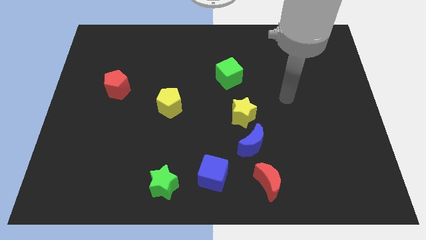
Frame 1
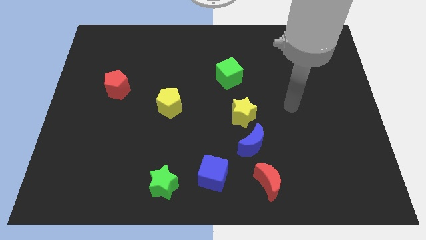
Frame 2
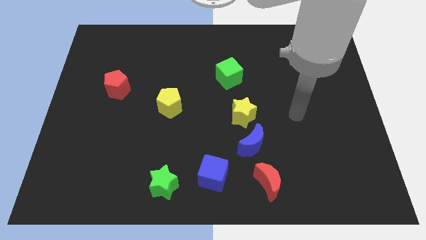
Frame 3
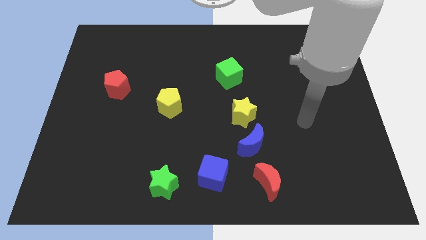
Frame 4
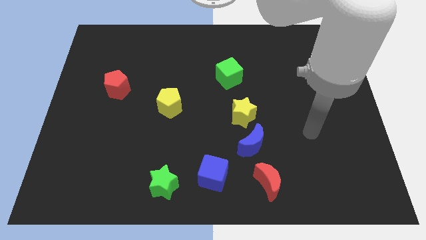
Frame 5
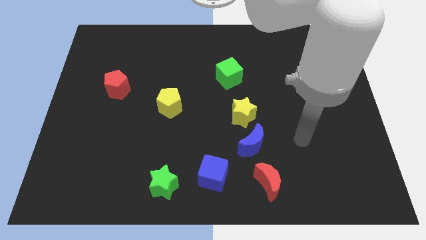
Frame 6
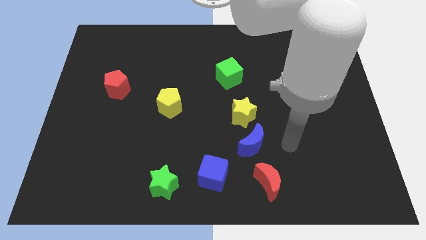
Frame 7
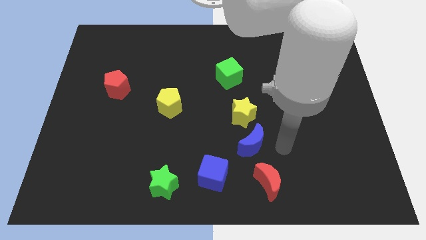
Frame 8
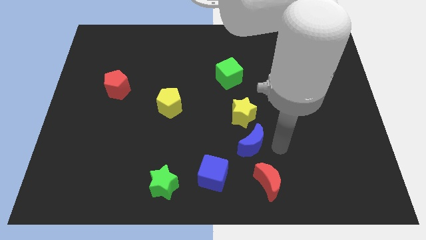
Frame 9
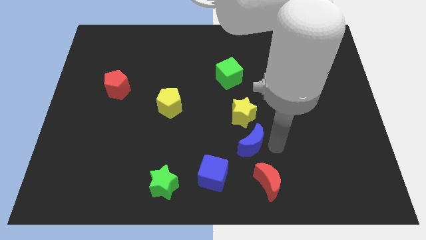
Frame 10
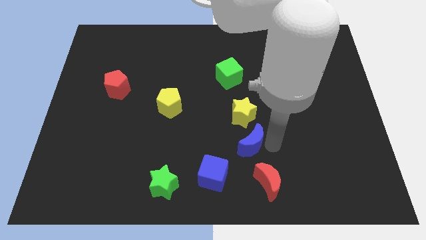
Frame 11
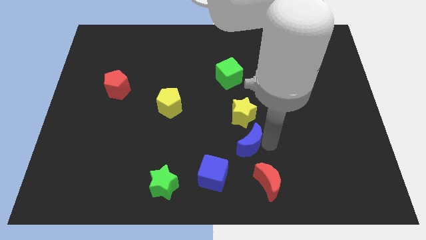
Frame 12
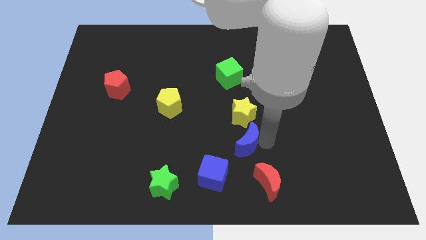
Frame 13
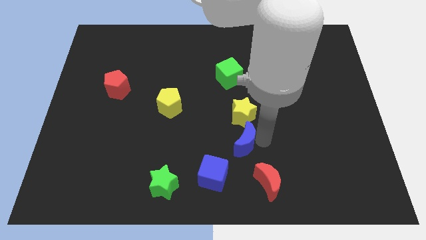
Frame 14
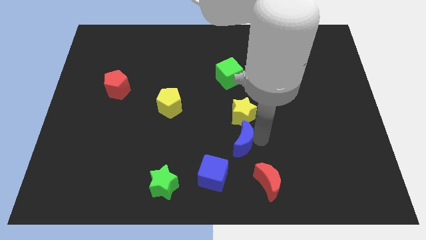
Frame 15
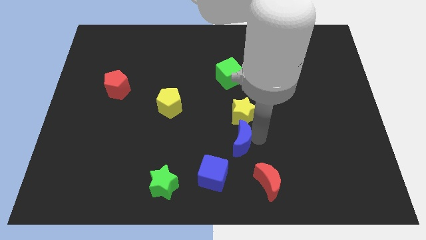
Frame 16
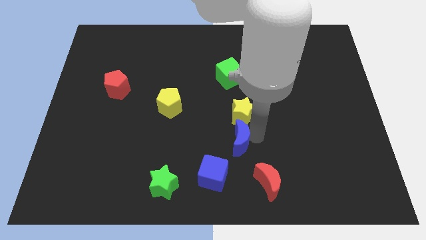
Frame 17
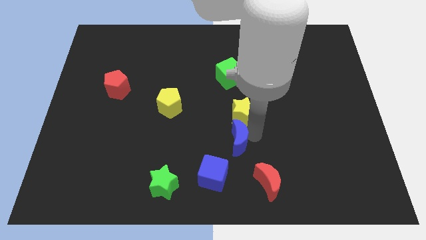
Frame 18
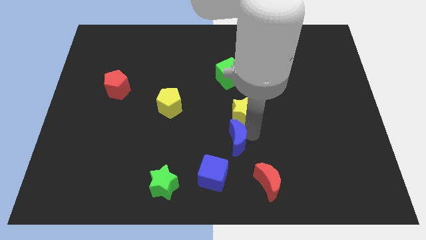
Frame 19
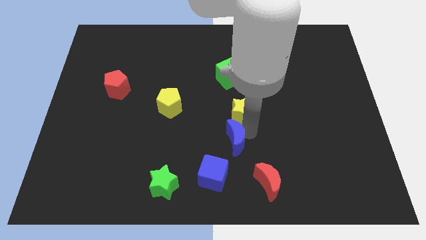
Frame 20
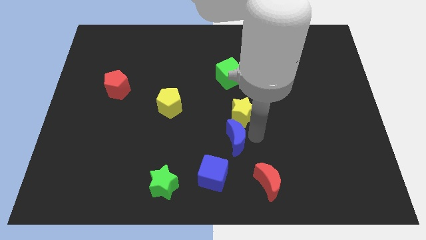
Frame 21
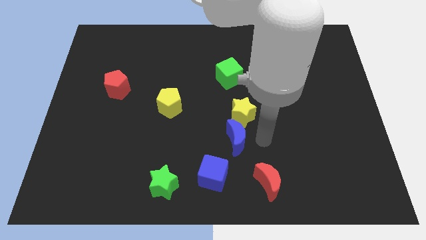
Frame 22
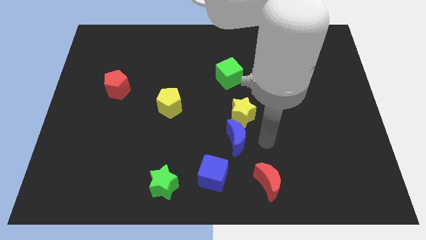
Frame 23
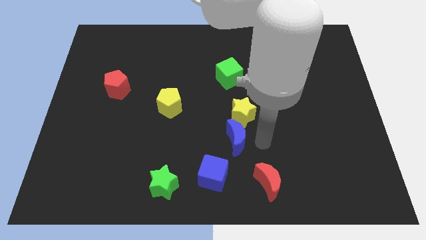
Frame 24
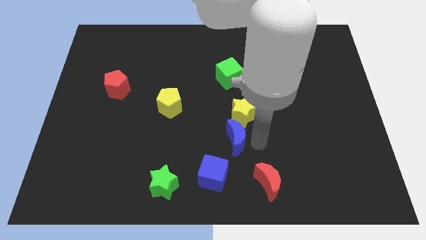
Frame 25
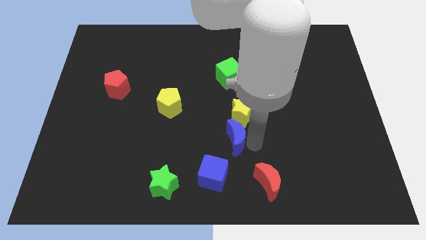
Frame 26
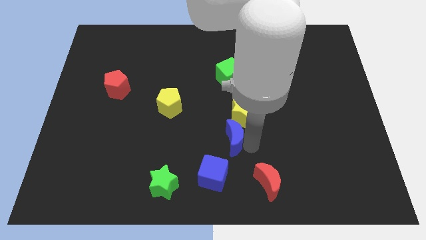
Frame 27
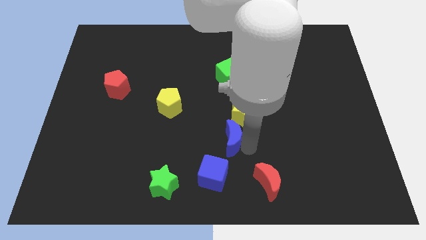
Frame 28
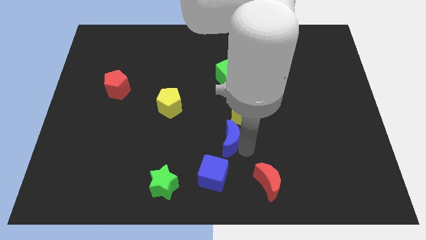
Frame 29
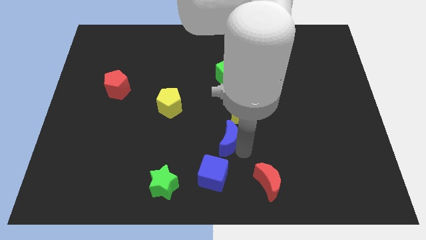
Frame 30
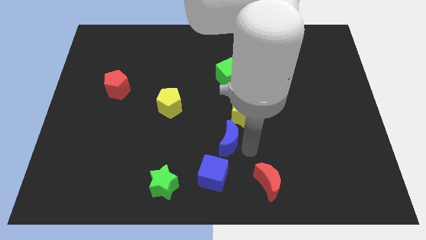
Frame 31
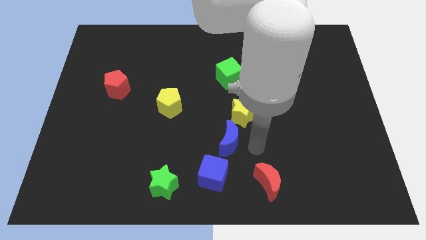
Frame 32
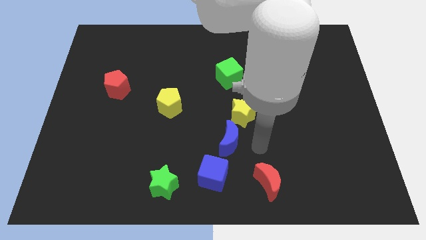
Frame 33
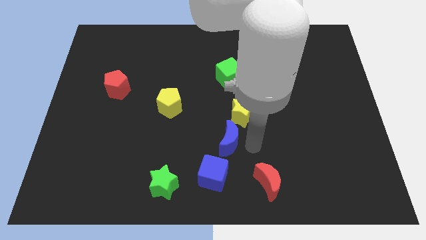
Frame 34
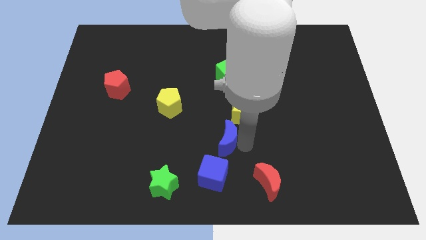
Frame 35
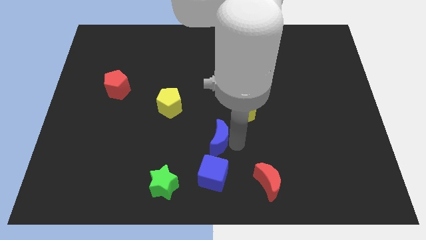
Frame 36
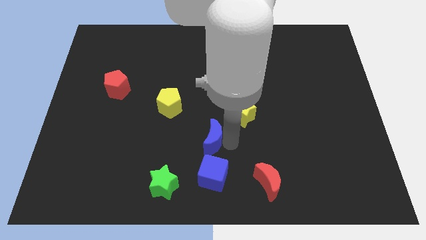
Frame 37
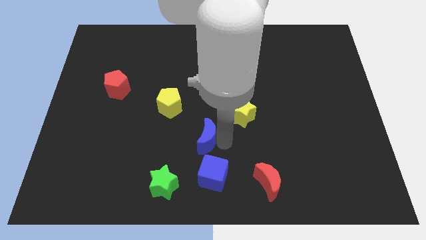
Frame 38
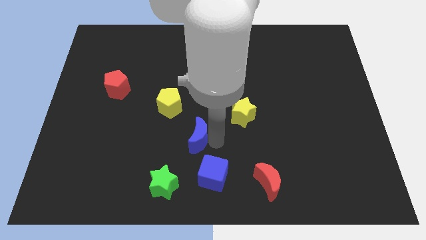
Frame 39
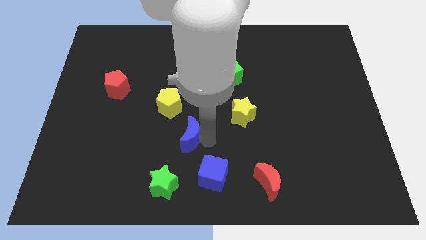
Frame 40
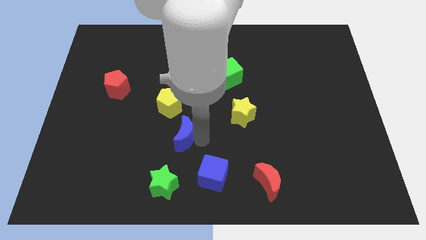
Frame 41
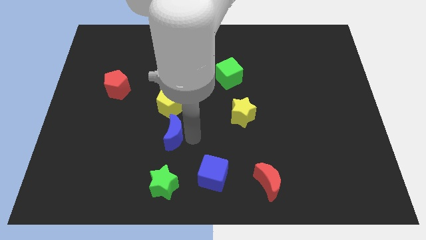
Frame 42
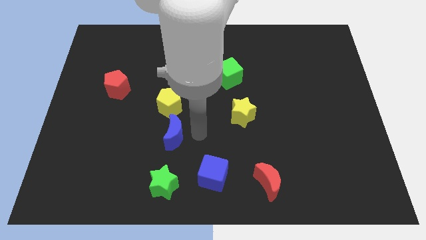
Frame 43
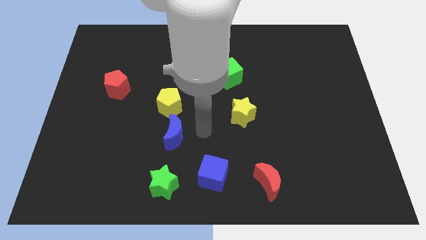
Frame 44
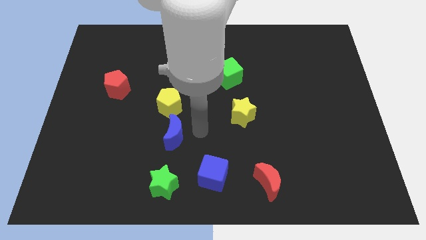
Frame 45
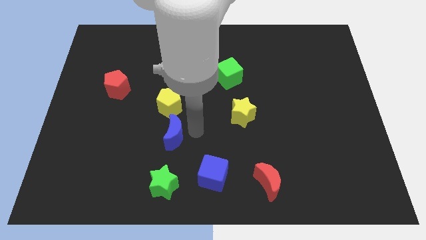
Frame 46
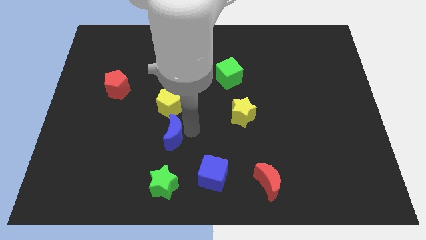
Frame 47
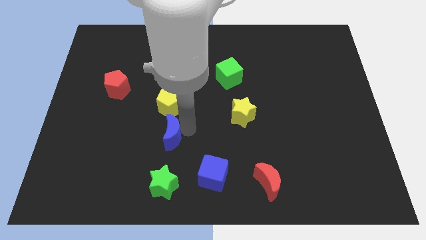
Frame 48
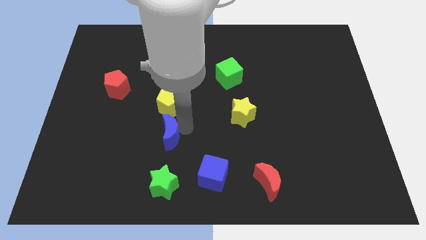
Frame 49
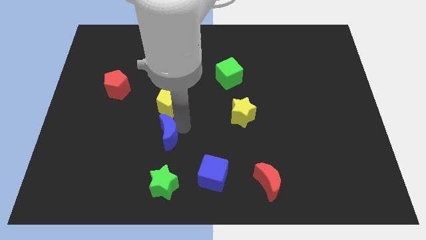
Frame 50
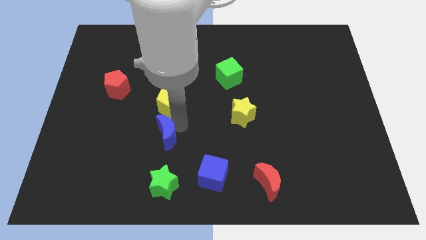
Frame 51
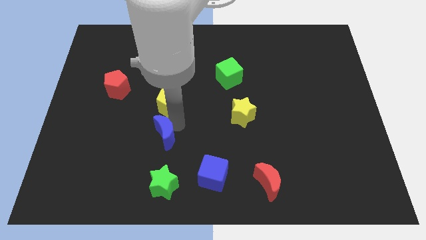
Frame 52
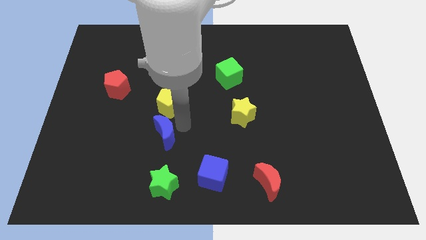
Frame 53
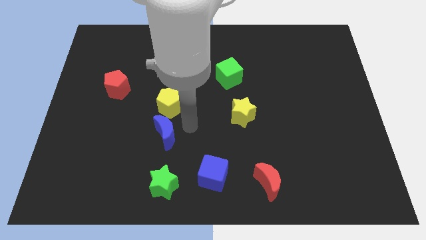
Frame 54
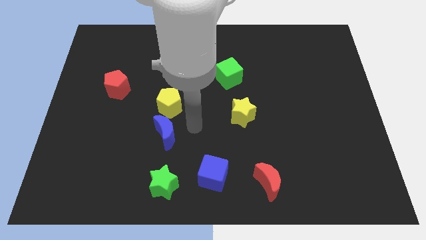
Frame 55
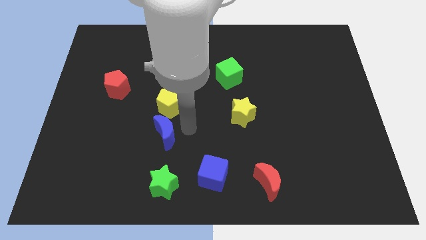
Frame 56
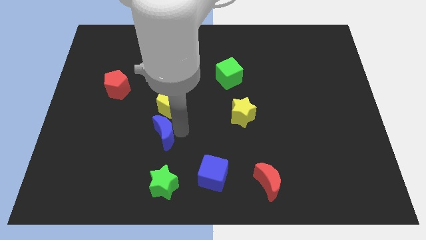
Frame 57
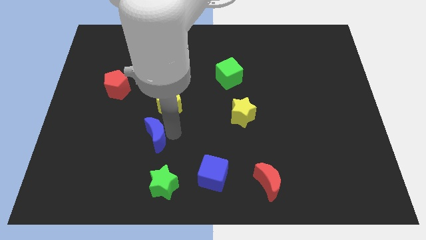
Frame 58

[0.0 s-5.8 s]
slide the blue moon to the left

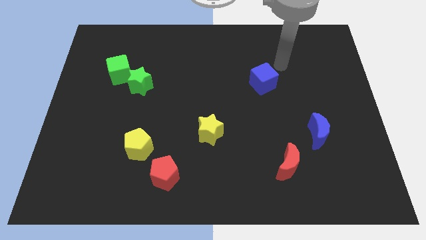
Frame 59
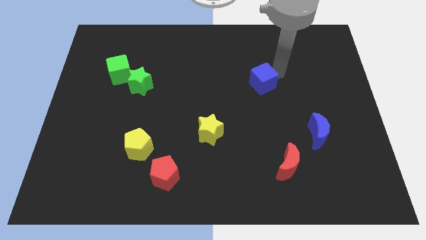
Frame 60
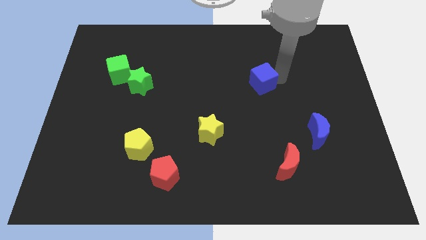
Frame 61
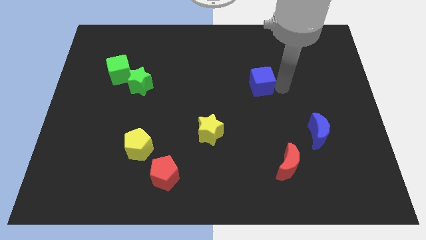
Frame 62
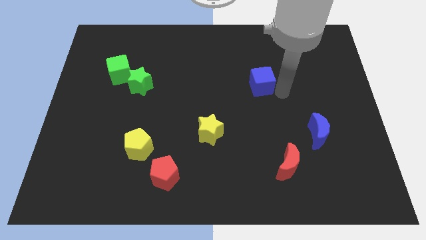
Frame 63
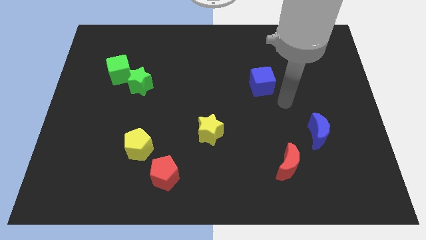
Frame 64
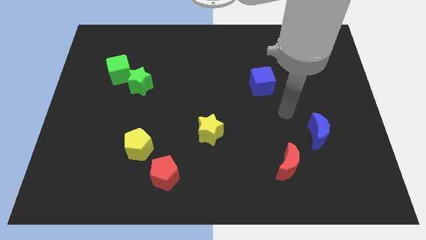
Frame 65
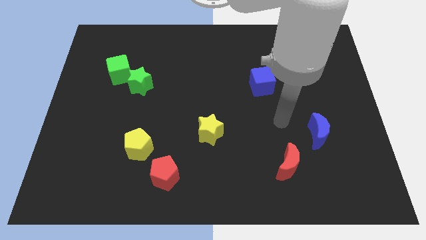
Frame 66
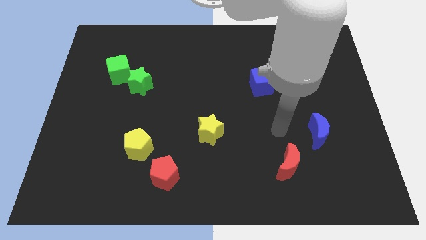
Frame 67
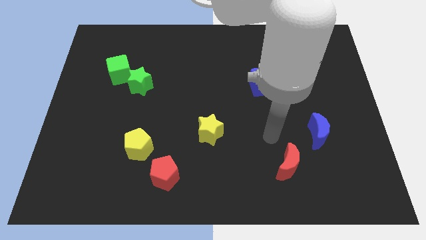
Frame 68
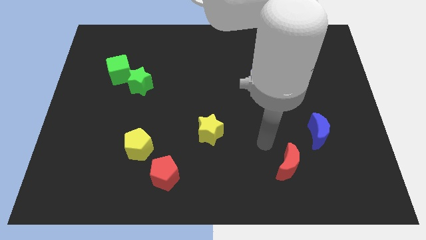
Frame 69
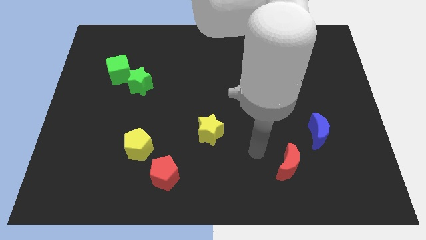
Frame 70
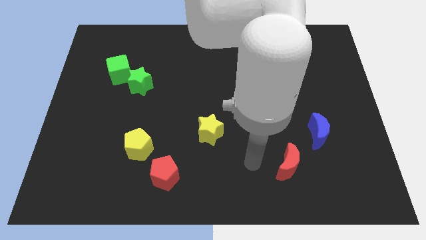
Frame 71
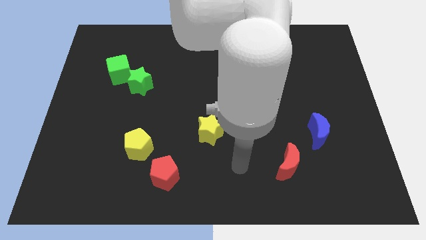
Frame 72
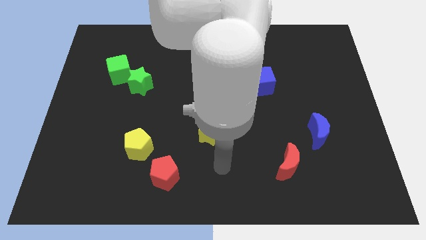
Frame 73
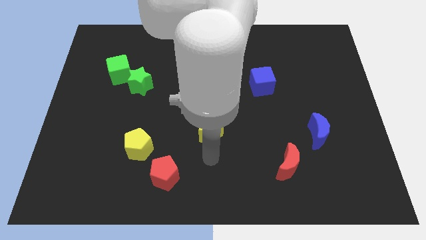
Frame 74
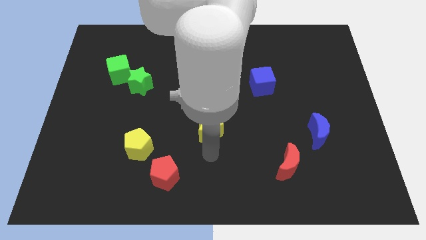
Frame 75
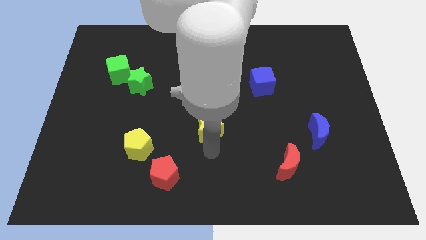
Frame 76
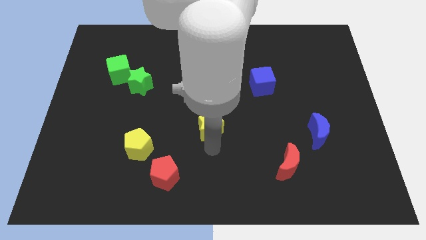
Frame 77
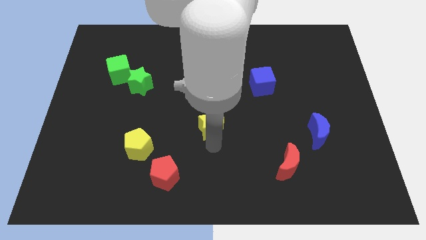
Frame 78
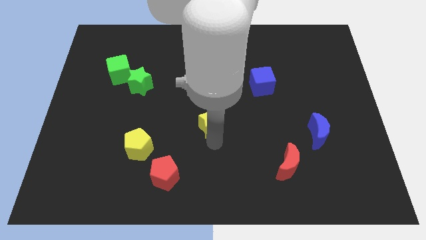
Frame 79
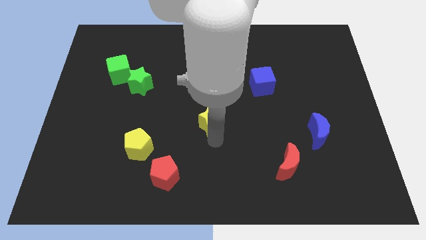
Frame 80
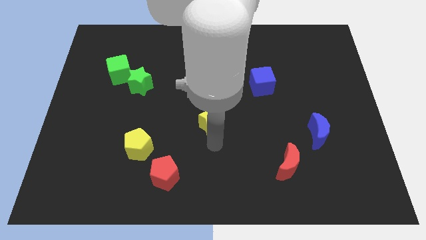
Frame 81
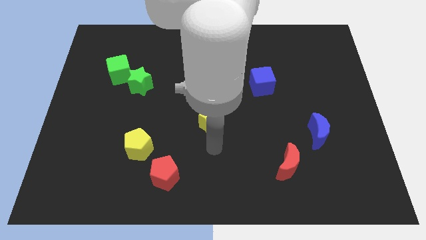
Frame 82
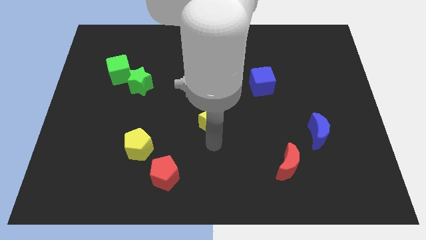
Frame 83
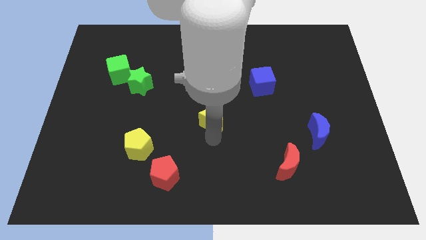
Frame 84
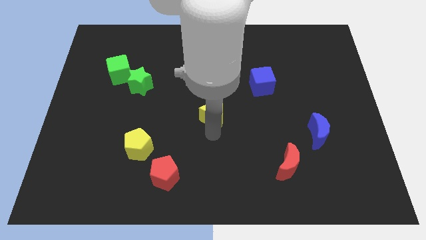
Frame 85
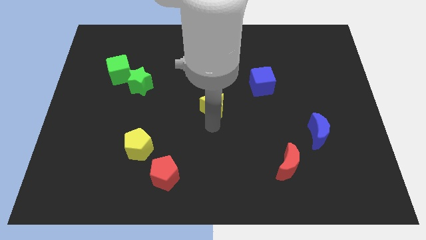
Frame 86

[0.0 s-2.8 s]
slide the yellow star slightly up
